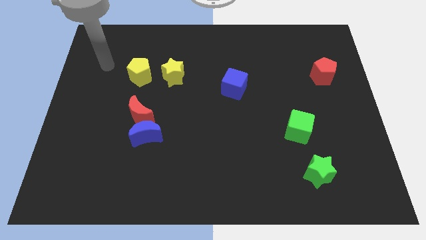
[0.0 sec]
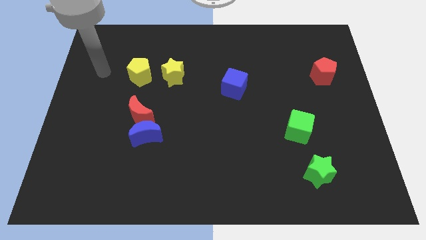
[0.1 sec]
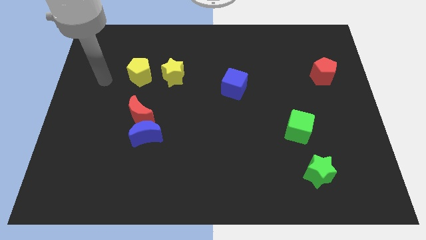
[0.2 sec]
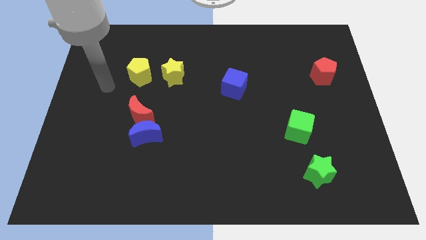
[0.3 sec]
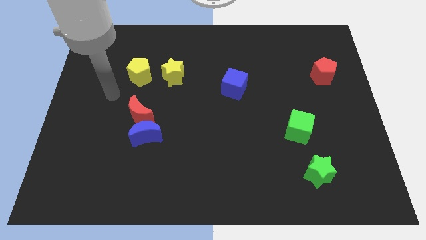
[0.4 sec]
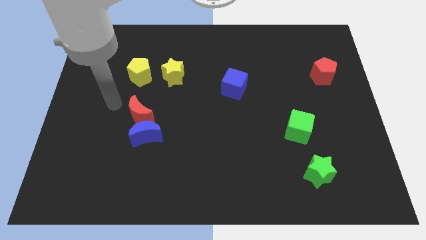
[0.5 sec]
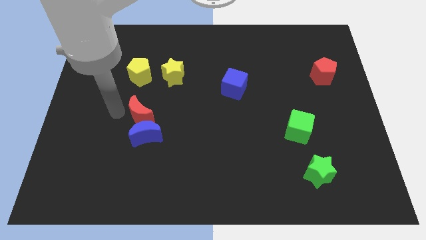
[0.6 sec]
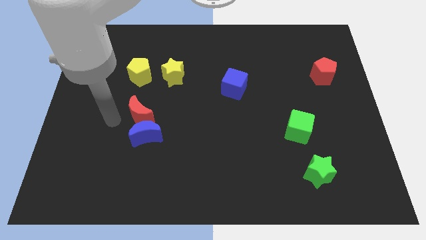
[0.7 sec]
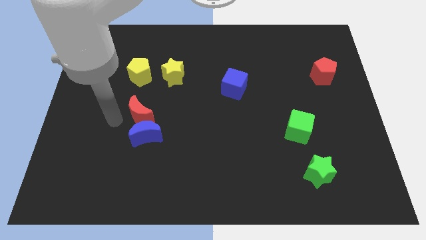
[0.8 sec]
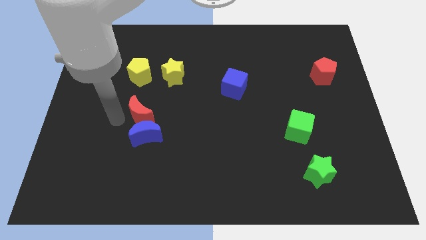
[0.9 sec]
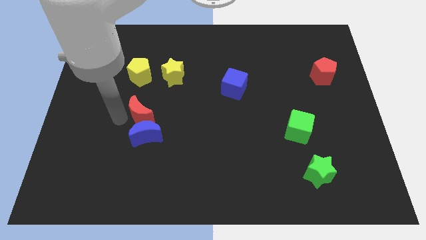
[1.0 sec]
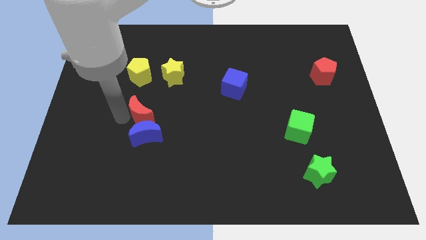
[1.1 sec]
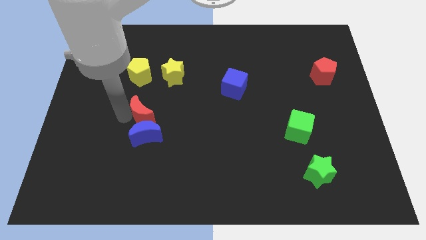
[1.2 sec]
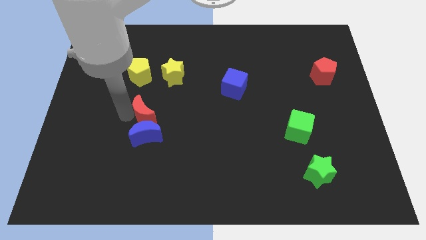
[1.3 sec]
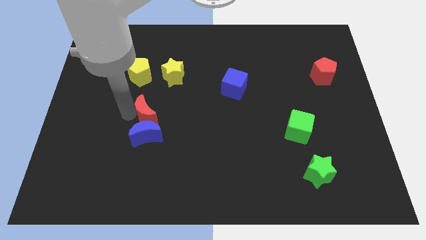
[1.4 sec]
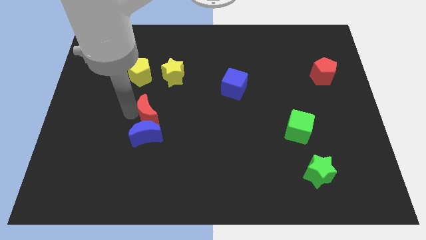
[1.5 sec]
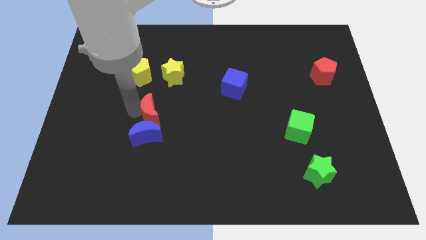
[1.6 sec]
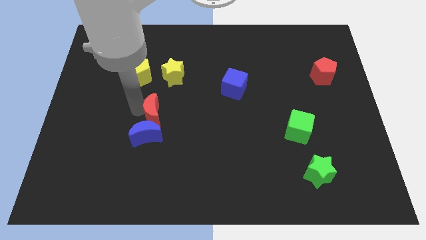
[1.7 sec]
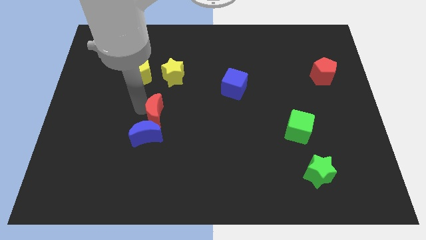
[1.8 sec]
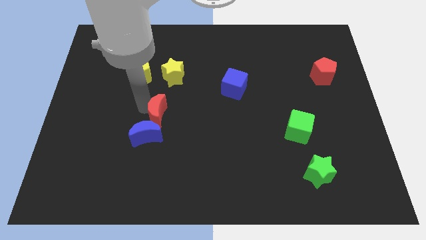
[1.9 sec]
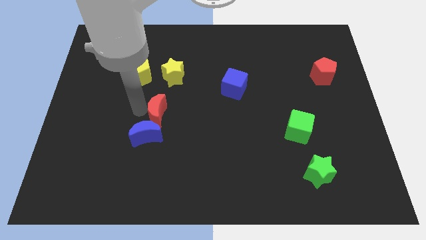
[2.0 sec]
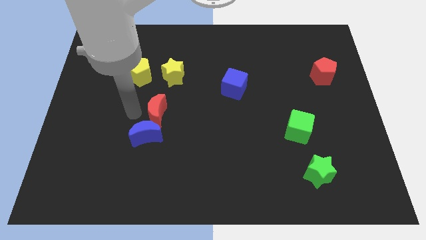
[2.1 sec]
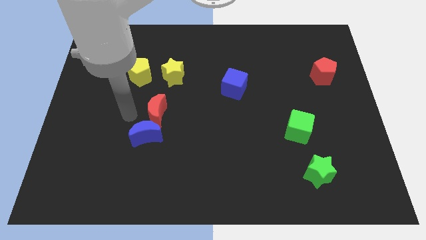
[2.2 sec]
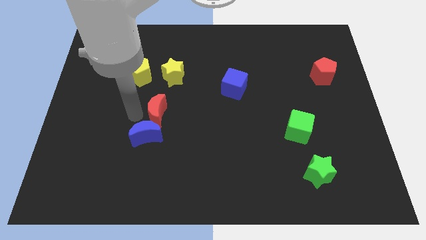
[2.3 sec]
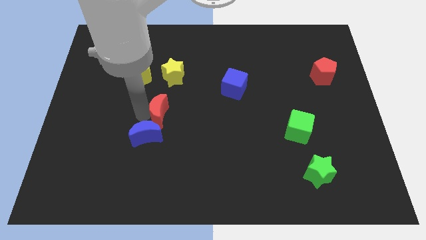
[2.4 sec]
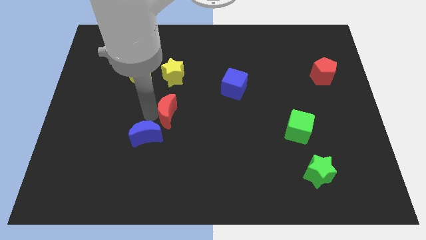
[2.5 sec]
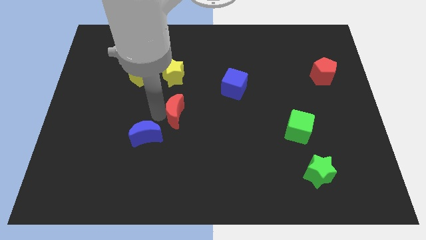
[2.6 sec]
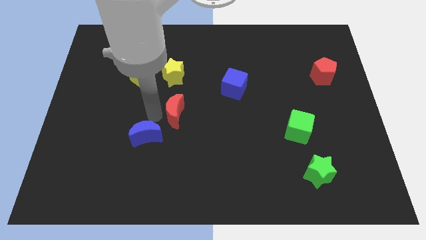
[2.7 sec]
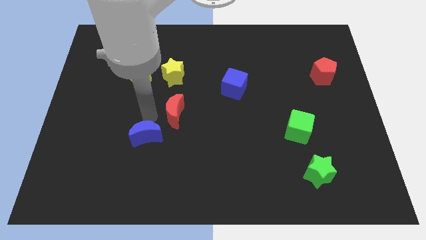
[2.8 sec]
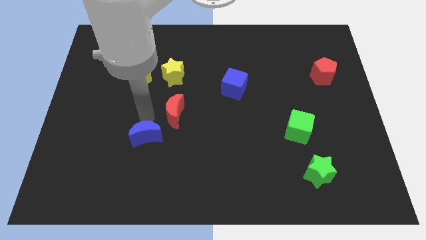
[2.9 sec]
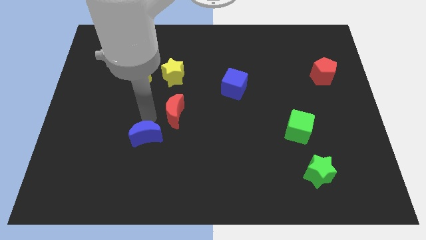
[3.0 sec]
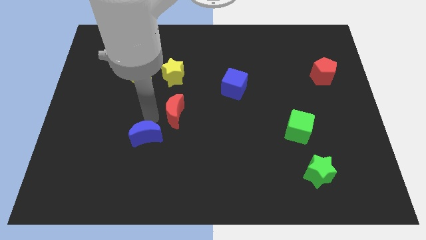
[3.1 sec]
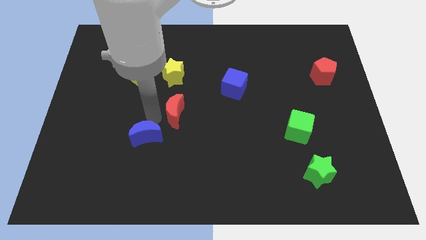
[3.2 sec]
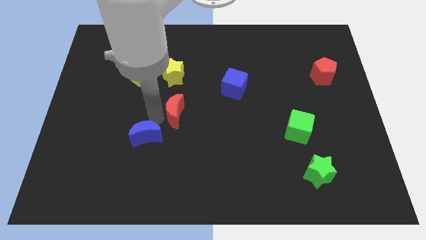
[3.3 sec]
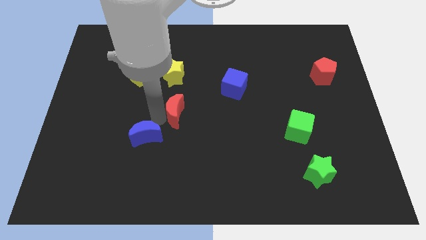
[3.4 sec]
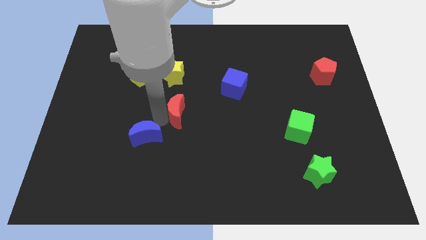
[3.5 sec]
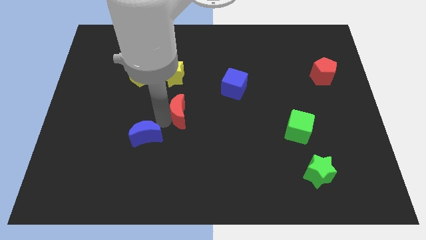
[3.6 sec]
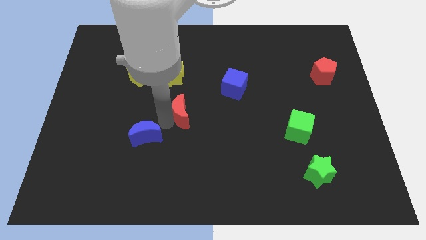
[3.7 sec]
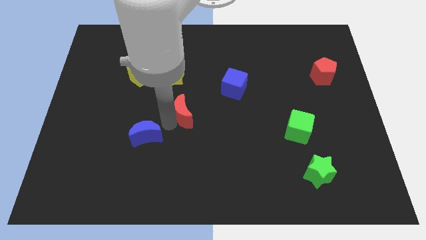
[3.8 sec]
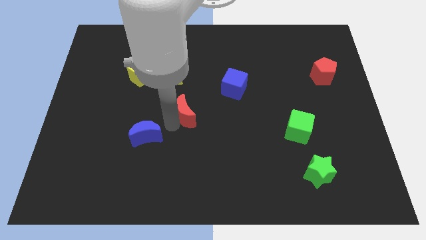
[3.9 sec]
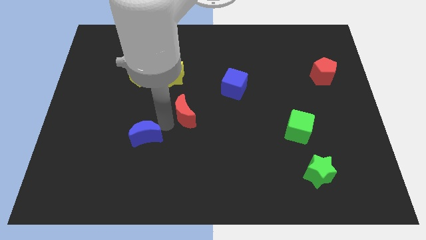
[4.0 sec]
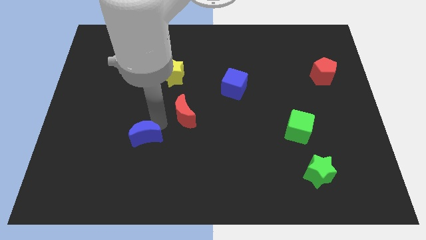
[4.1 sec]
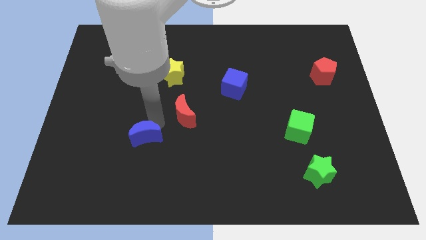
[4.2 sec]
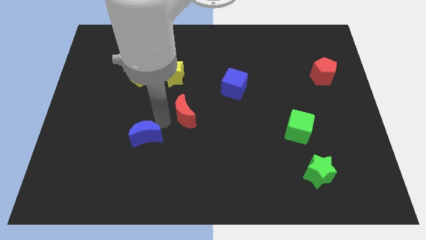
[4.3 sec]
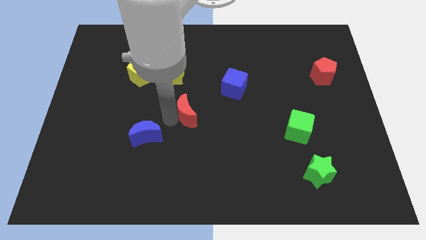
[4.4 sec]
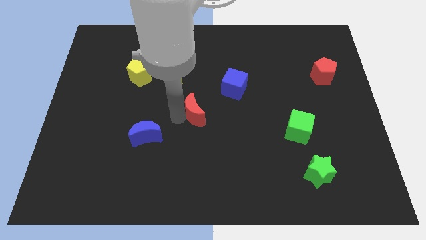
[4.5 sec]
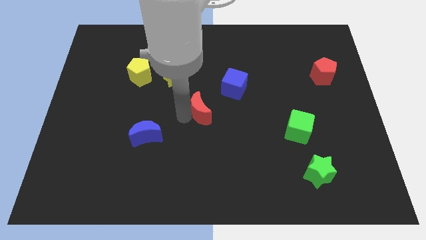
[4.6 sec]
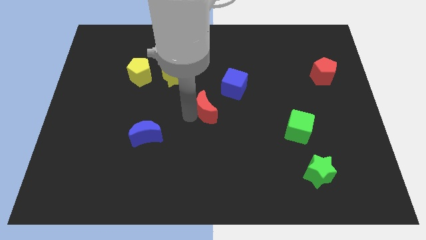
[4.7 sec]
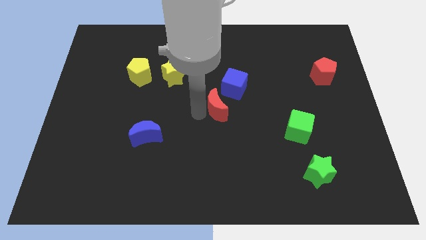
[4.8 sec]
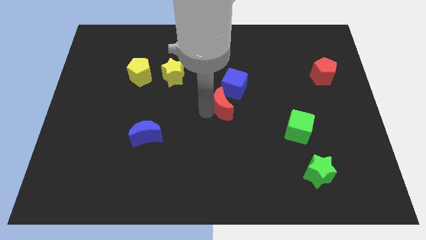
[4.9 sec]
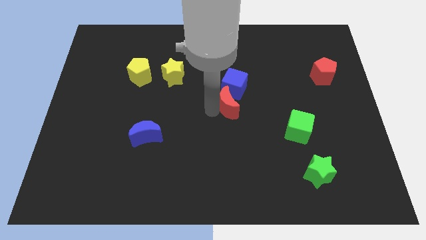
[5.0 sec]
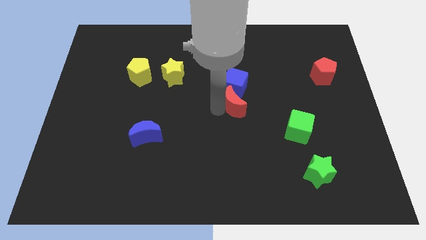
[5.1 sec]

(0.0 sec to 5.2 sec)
put the red moon to the bottom right side of the blue cube

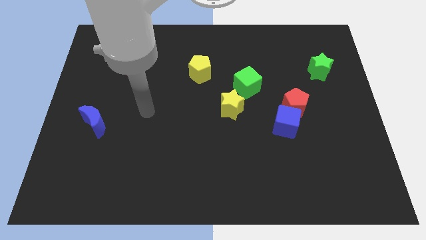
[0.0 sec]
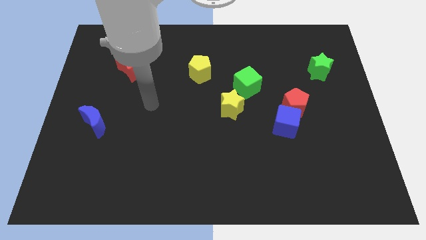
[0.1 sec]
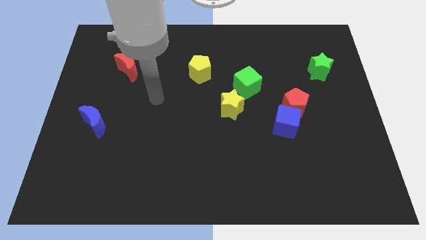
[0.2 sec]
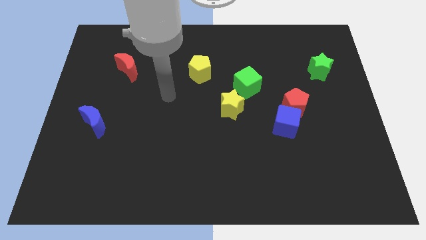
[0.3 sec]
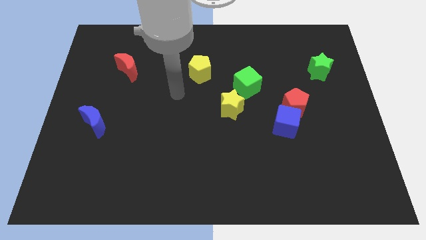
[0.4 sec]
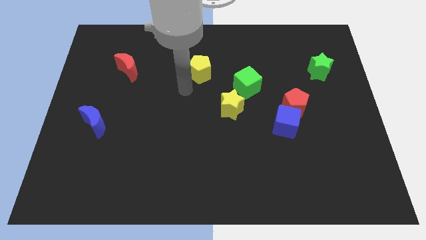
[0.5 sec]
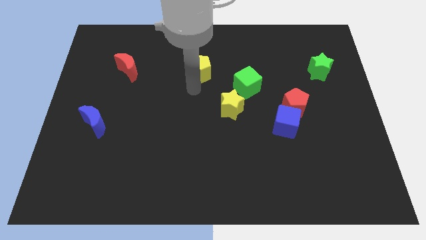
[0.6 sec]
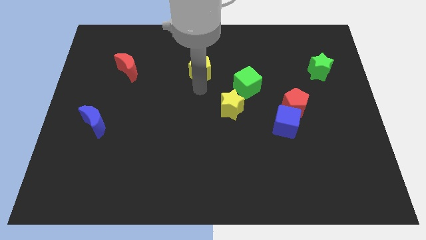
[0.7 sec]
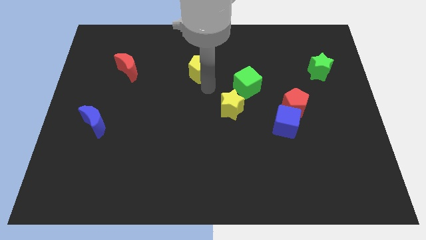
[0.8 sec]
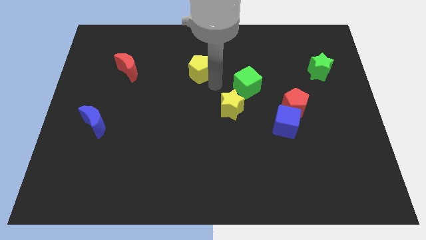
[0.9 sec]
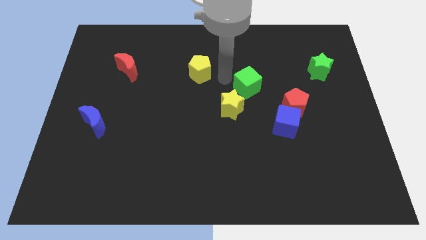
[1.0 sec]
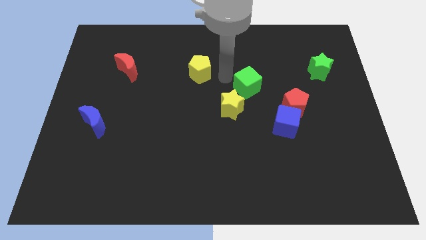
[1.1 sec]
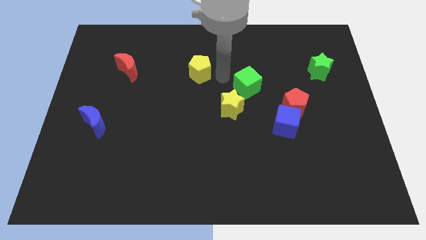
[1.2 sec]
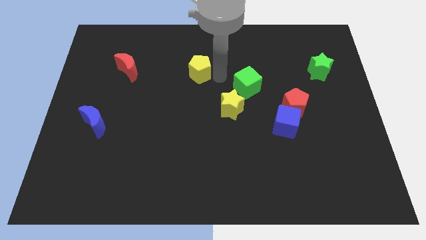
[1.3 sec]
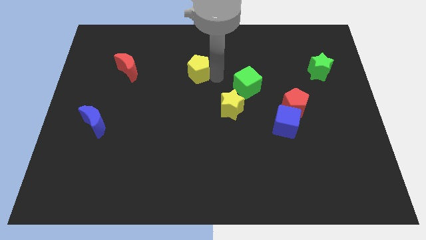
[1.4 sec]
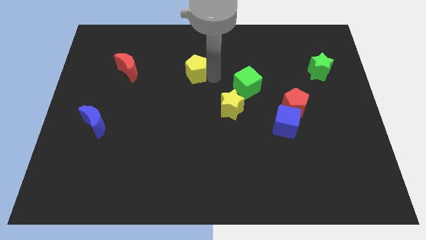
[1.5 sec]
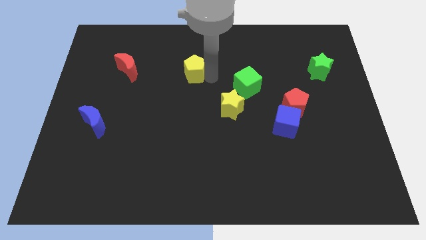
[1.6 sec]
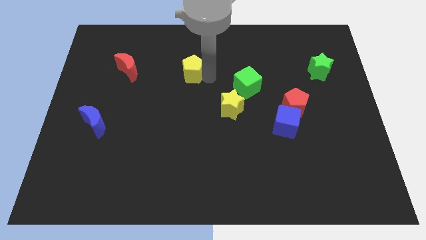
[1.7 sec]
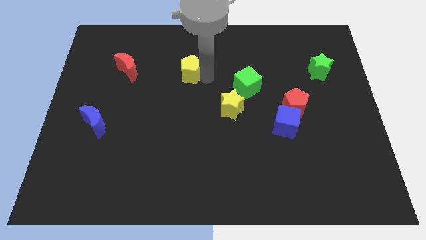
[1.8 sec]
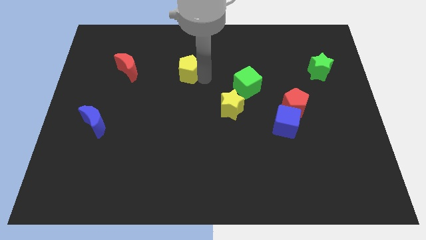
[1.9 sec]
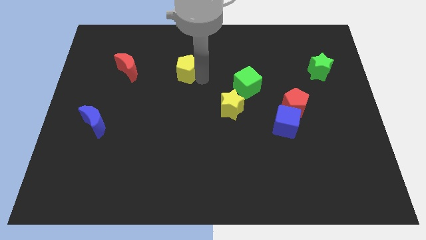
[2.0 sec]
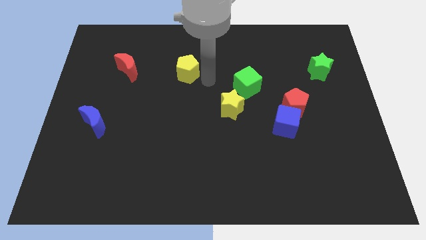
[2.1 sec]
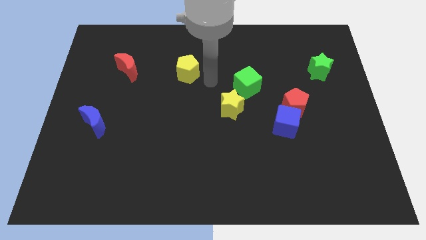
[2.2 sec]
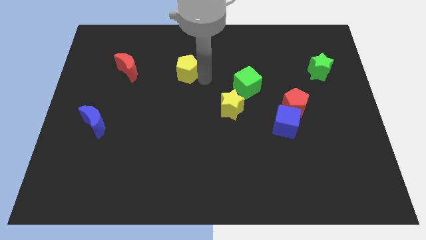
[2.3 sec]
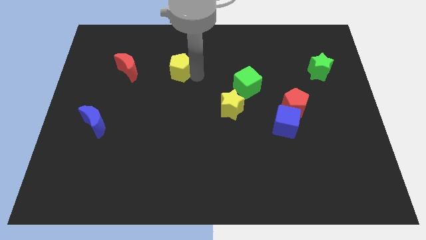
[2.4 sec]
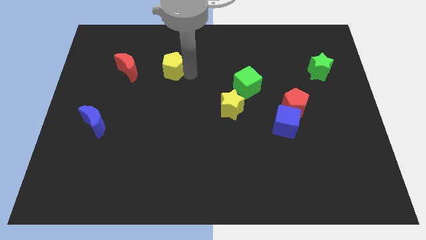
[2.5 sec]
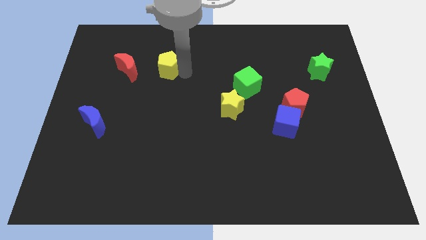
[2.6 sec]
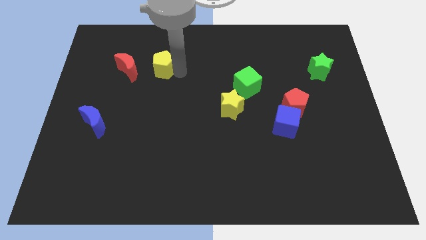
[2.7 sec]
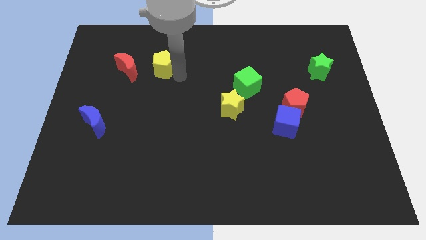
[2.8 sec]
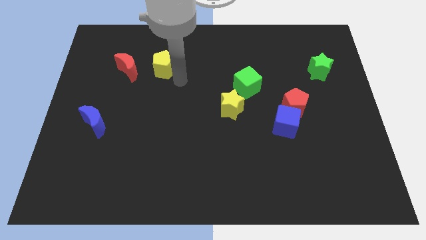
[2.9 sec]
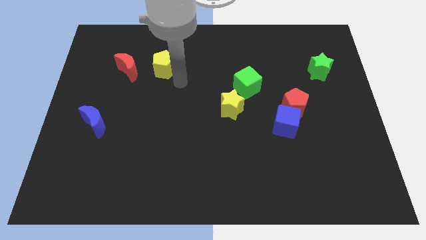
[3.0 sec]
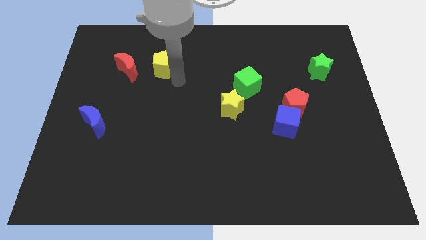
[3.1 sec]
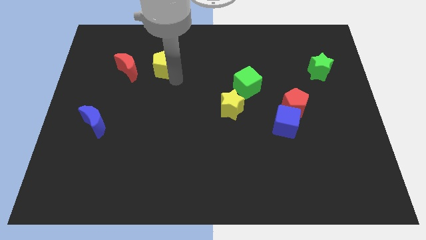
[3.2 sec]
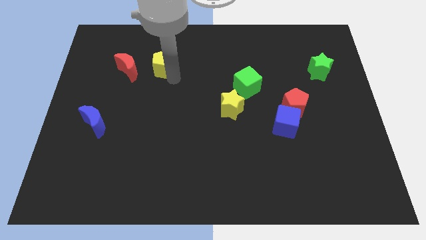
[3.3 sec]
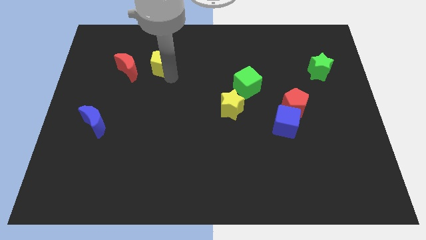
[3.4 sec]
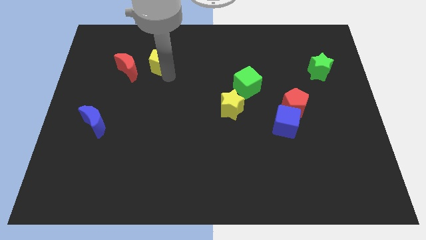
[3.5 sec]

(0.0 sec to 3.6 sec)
put the yellow pentagon to the top right side of the red moon
